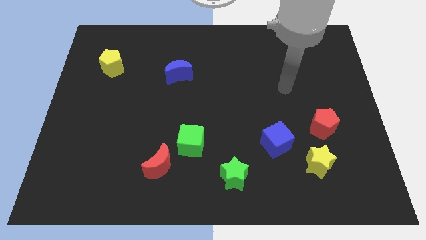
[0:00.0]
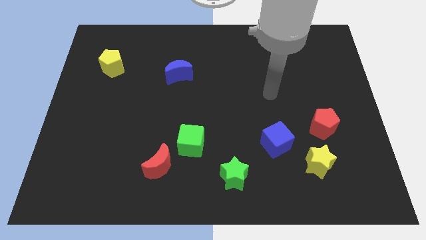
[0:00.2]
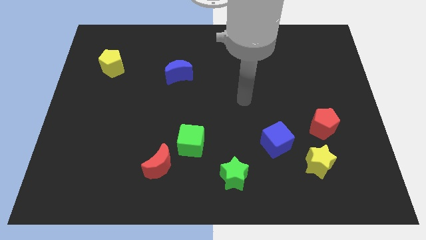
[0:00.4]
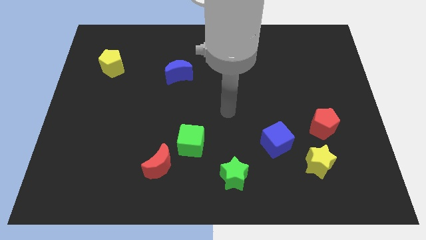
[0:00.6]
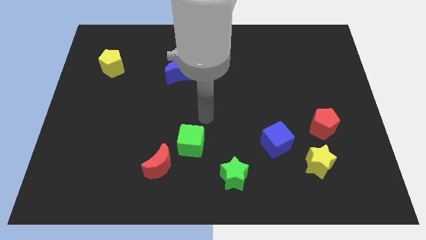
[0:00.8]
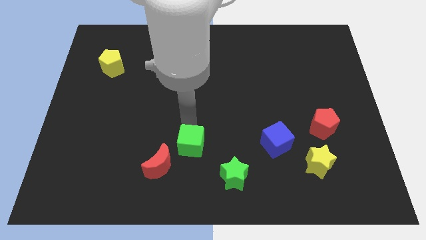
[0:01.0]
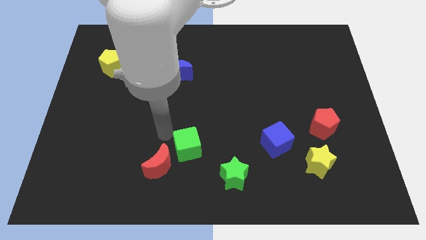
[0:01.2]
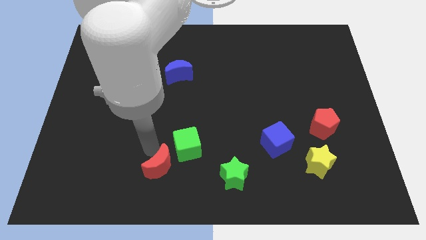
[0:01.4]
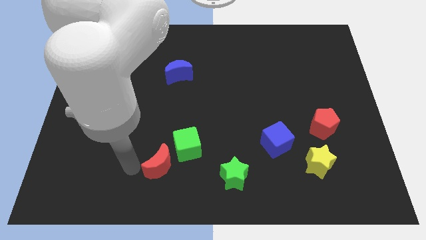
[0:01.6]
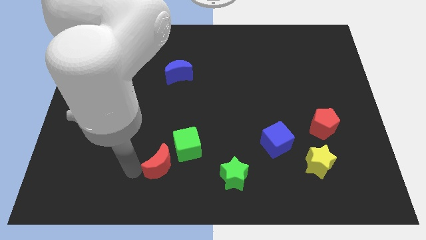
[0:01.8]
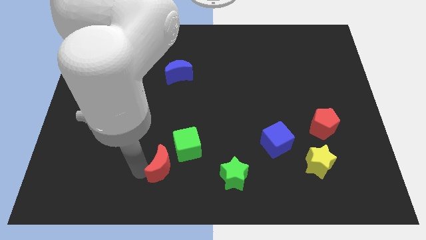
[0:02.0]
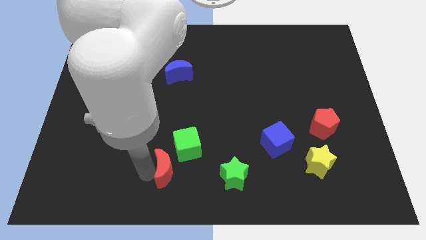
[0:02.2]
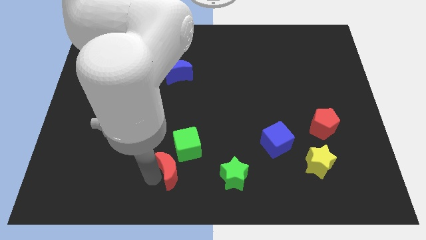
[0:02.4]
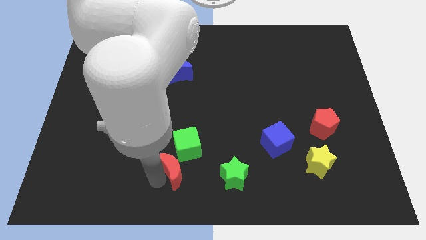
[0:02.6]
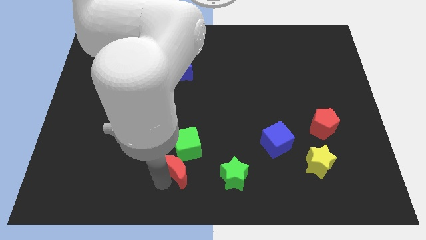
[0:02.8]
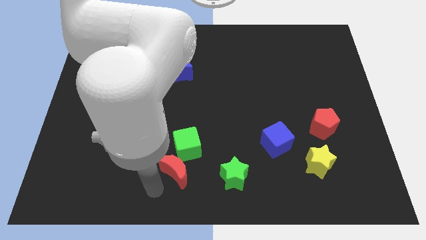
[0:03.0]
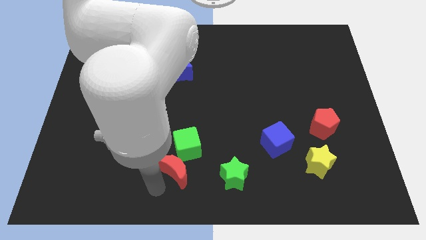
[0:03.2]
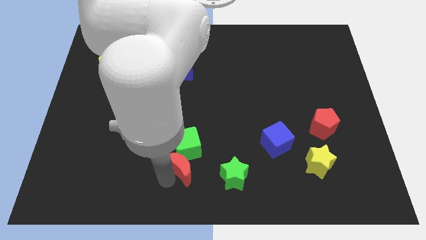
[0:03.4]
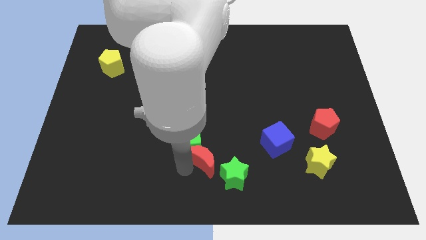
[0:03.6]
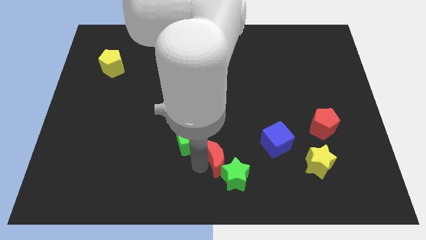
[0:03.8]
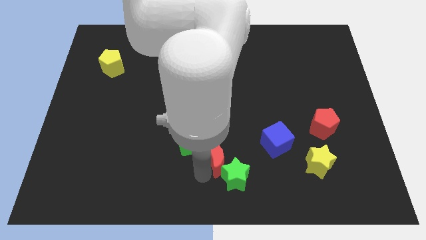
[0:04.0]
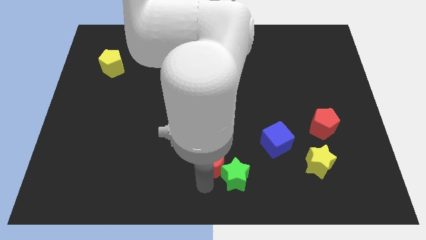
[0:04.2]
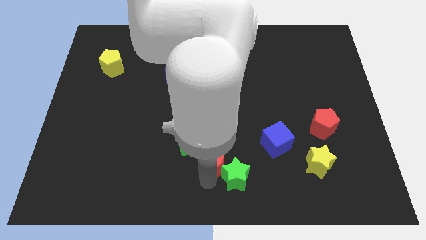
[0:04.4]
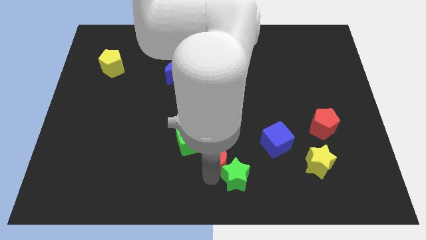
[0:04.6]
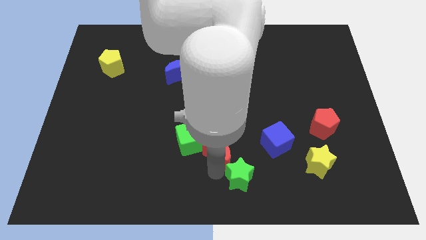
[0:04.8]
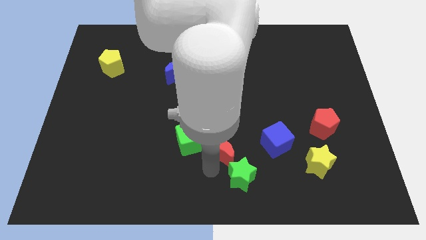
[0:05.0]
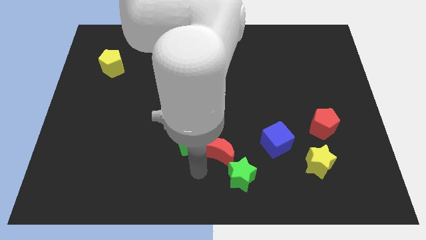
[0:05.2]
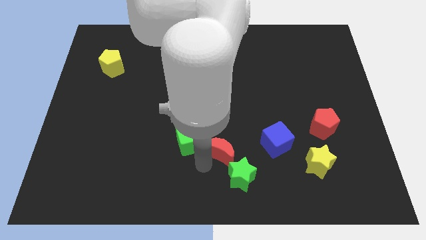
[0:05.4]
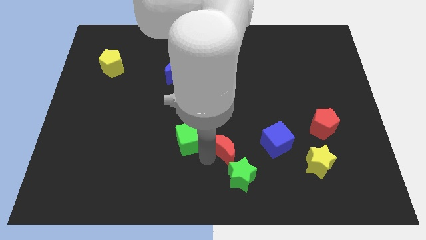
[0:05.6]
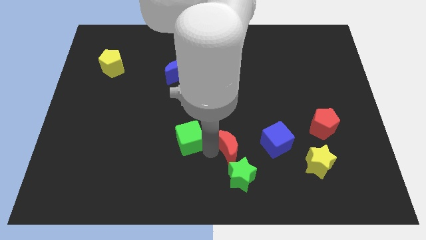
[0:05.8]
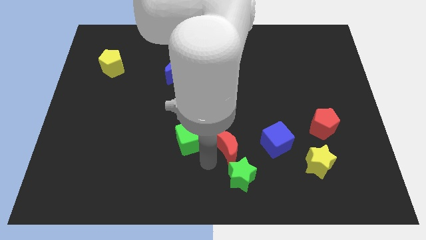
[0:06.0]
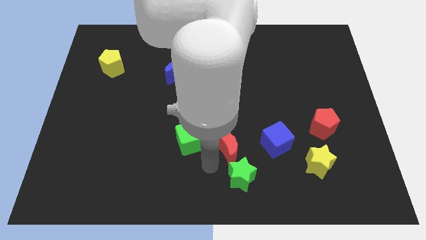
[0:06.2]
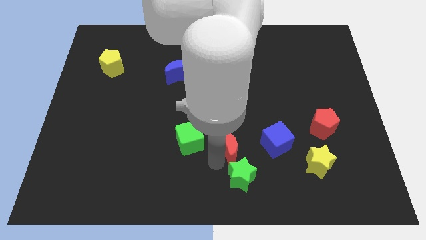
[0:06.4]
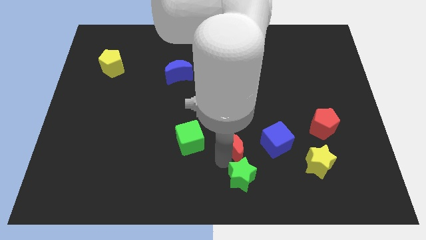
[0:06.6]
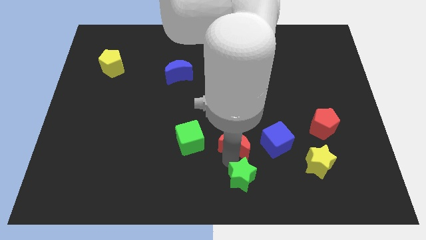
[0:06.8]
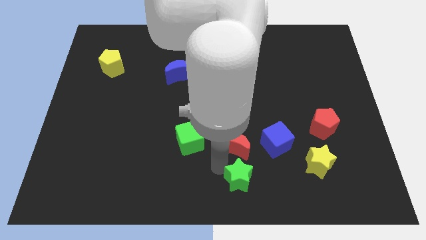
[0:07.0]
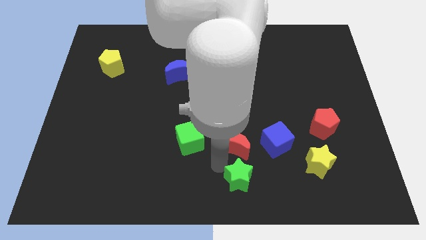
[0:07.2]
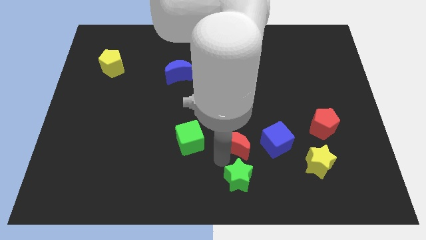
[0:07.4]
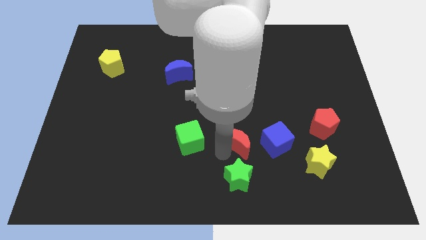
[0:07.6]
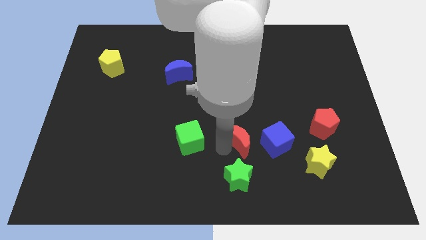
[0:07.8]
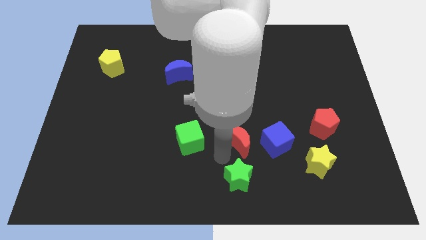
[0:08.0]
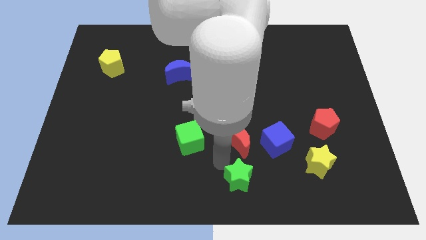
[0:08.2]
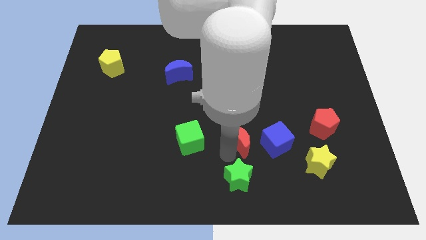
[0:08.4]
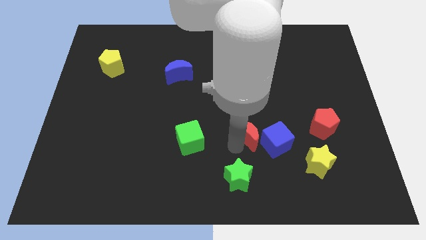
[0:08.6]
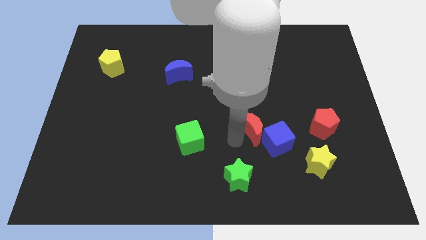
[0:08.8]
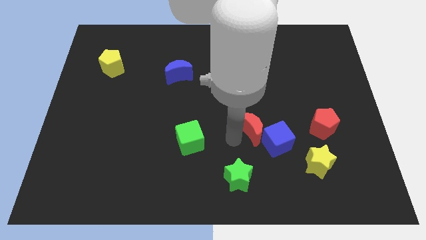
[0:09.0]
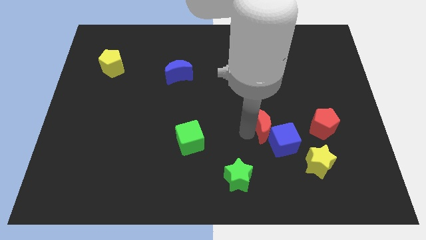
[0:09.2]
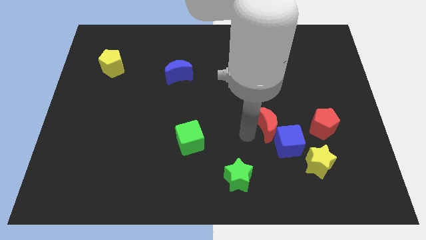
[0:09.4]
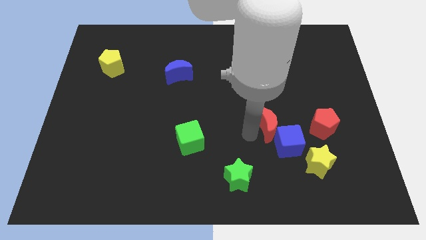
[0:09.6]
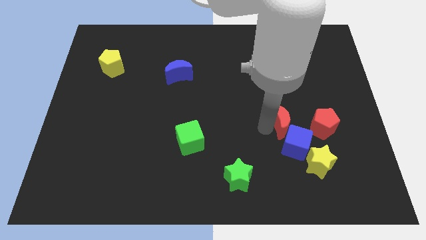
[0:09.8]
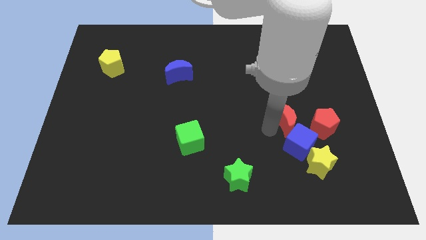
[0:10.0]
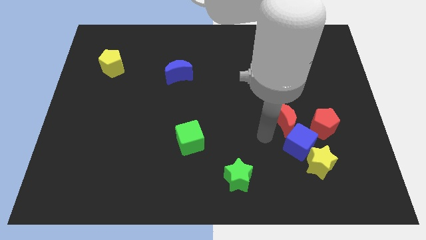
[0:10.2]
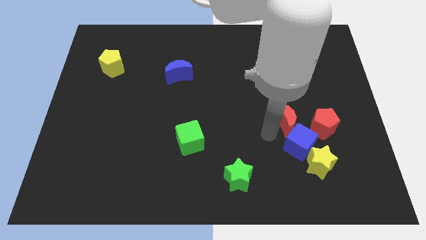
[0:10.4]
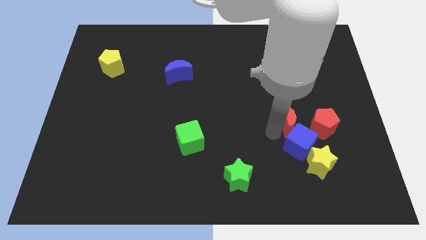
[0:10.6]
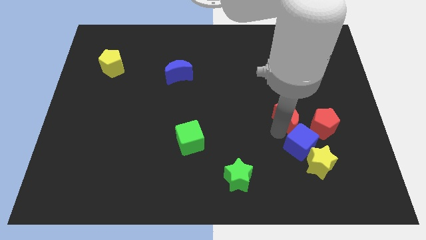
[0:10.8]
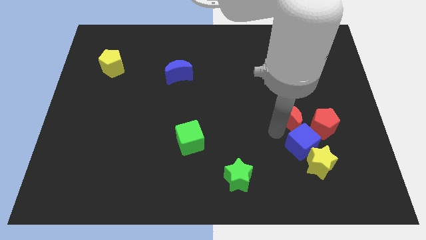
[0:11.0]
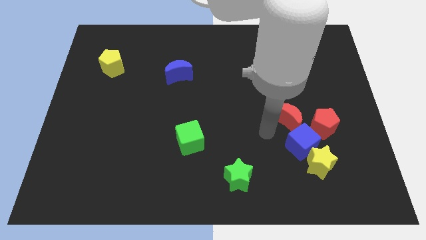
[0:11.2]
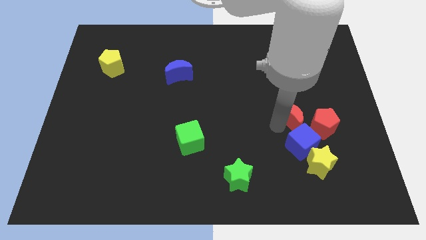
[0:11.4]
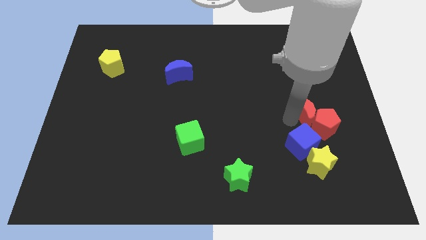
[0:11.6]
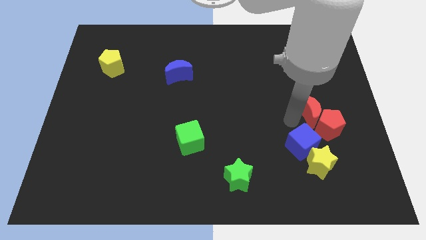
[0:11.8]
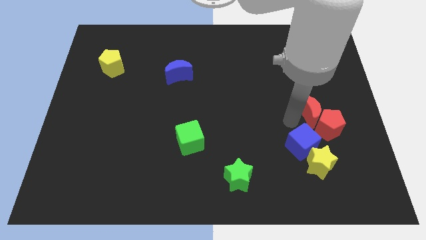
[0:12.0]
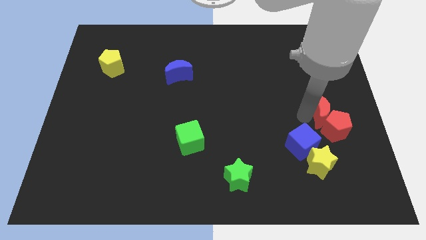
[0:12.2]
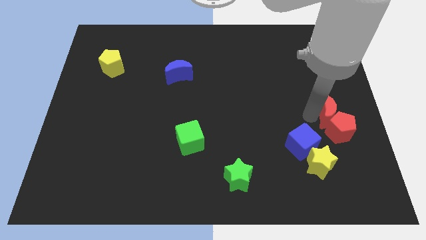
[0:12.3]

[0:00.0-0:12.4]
move the red moon to the right side
